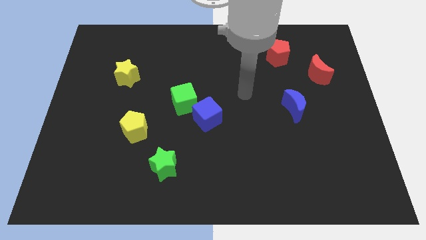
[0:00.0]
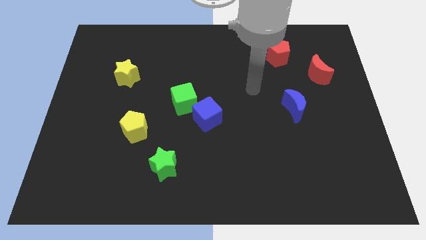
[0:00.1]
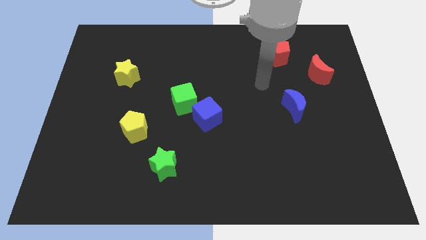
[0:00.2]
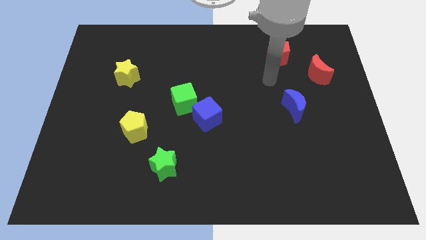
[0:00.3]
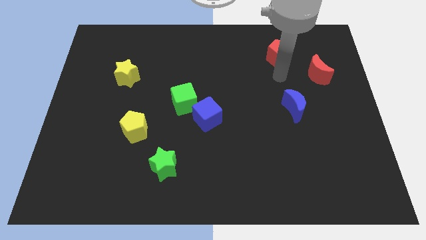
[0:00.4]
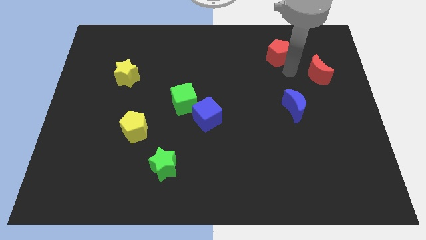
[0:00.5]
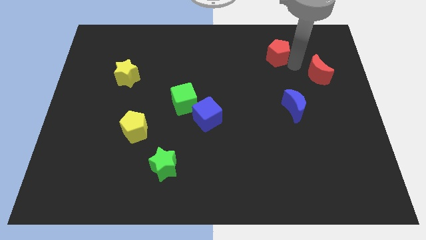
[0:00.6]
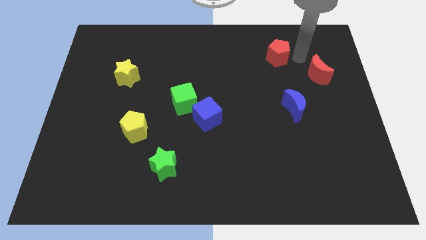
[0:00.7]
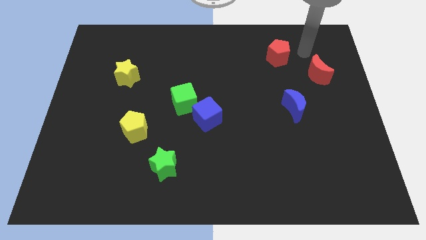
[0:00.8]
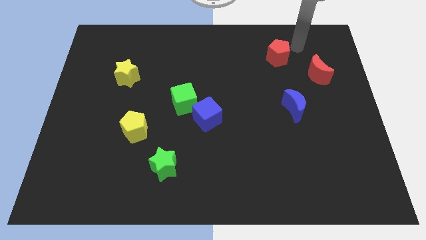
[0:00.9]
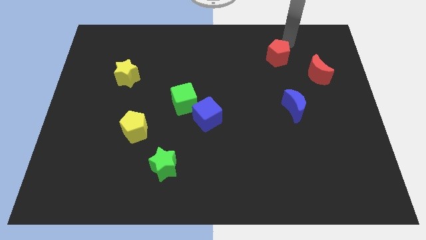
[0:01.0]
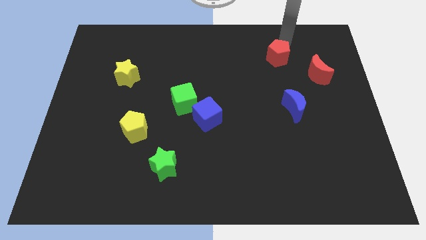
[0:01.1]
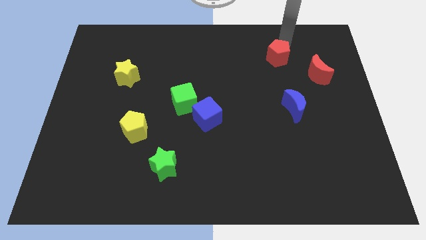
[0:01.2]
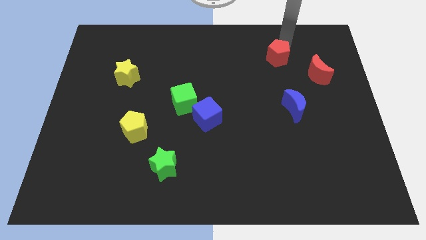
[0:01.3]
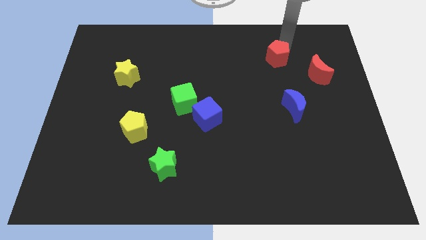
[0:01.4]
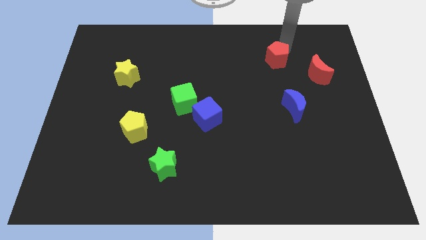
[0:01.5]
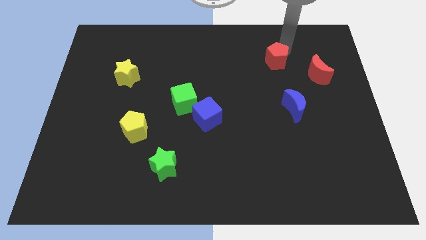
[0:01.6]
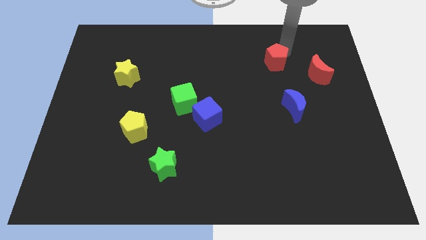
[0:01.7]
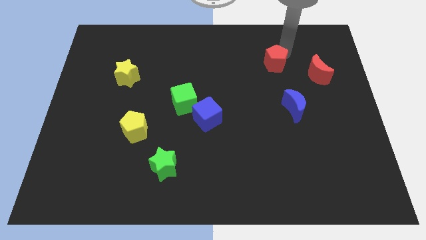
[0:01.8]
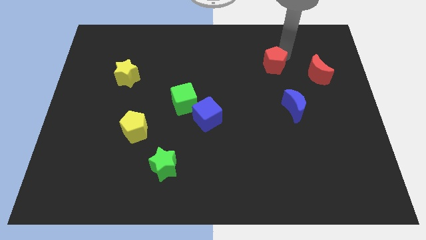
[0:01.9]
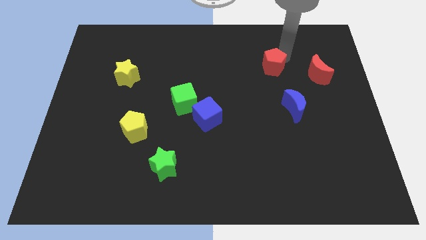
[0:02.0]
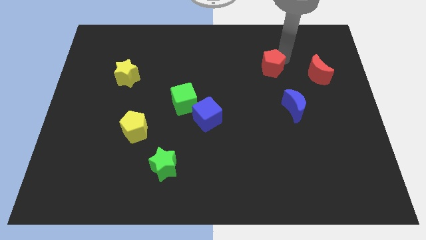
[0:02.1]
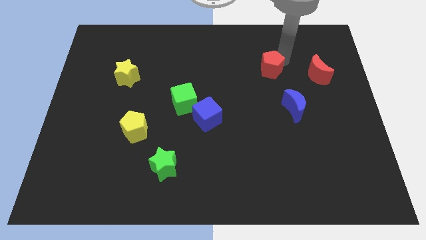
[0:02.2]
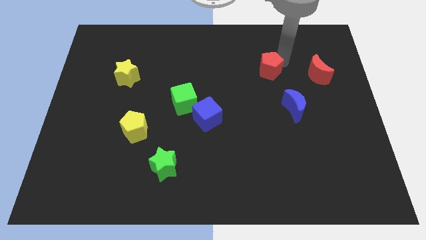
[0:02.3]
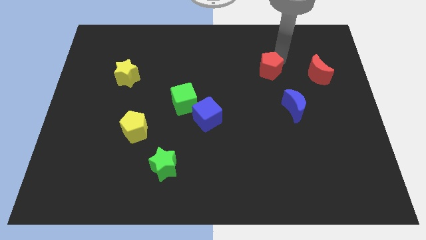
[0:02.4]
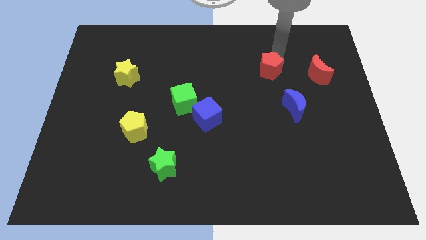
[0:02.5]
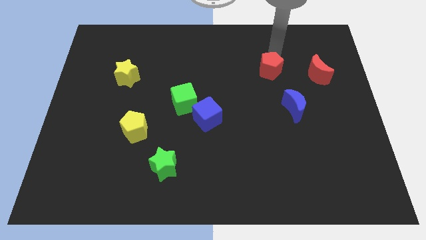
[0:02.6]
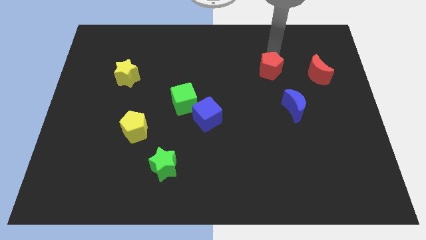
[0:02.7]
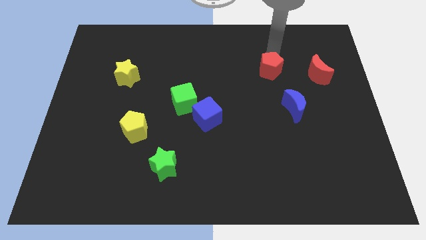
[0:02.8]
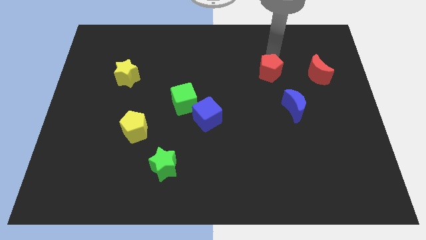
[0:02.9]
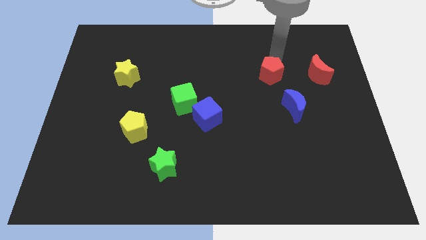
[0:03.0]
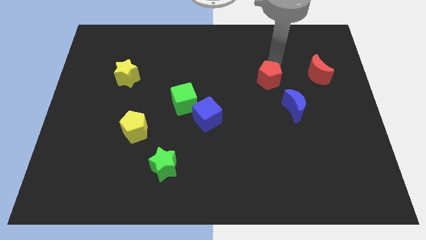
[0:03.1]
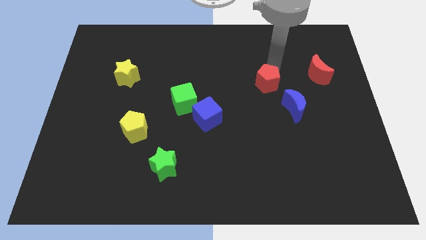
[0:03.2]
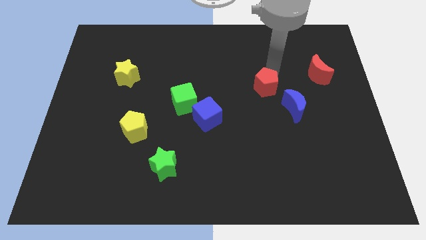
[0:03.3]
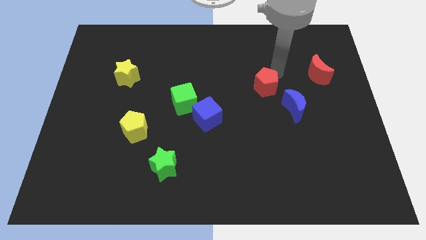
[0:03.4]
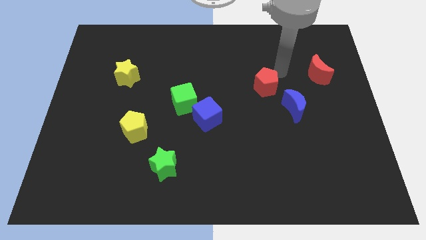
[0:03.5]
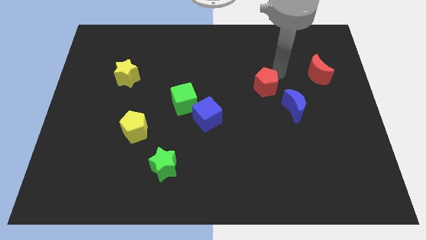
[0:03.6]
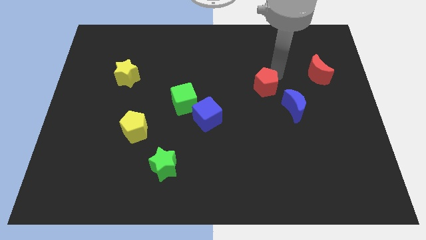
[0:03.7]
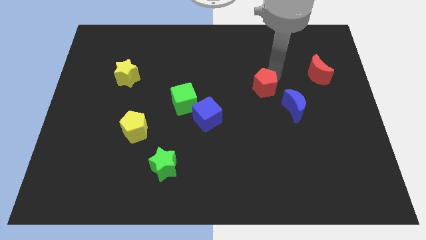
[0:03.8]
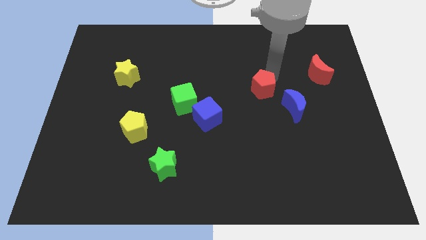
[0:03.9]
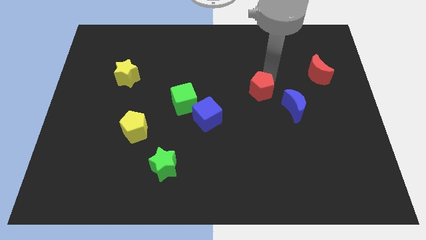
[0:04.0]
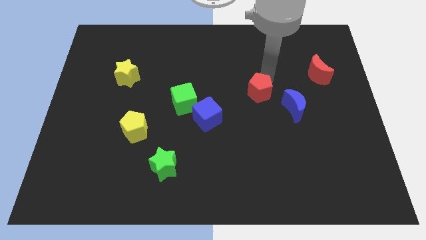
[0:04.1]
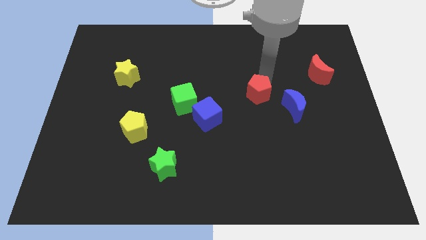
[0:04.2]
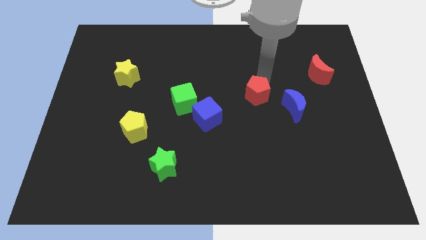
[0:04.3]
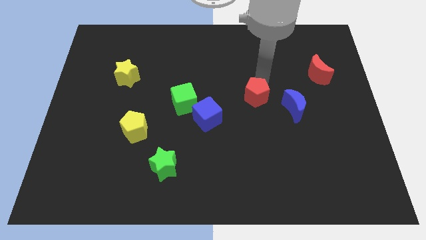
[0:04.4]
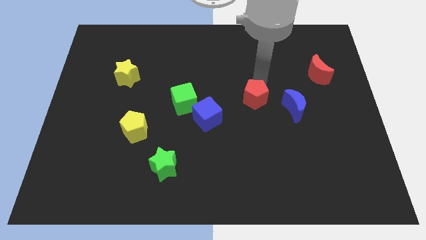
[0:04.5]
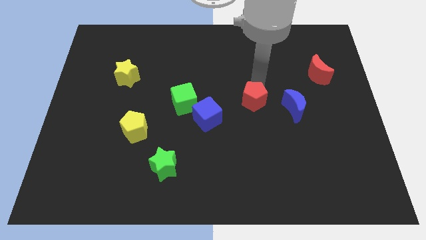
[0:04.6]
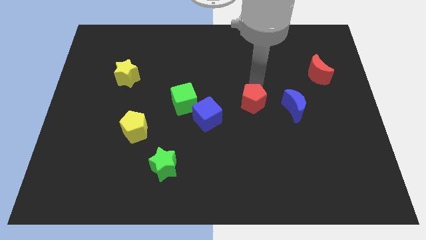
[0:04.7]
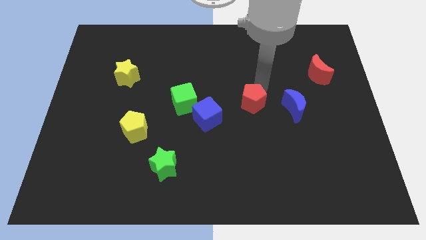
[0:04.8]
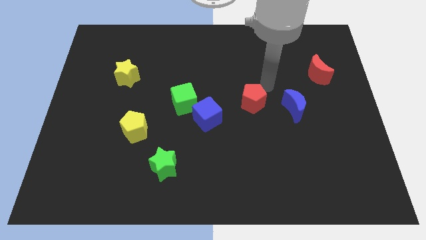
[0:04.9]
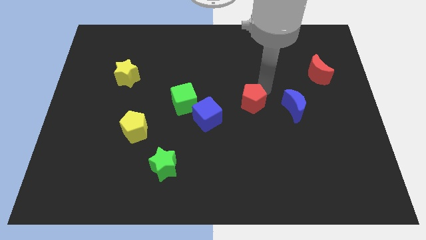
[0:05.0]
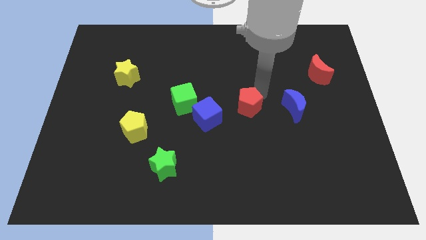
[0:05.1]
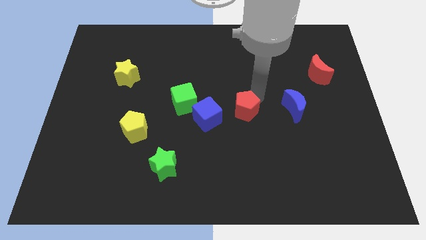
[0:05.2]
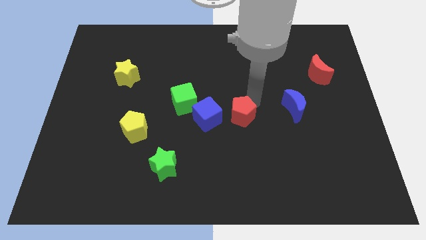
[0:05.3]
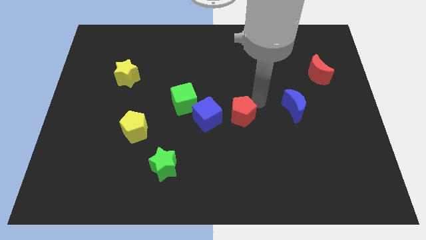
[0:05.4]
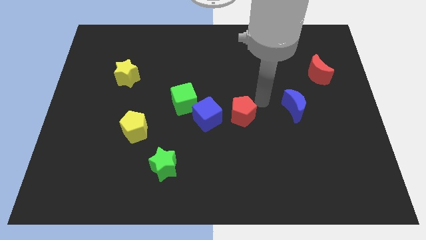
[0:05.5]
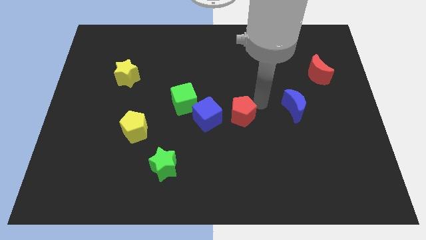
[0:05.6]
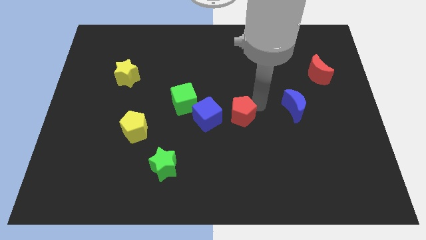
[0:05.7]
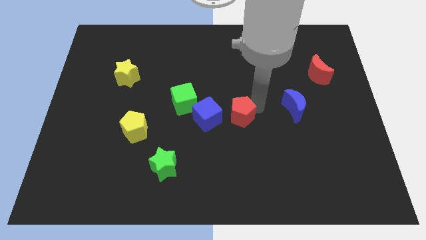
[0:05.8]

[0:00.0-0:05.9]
push the red pentagon diagonally downwards and left

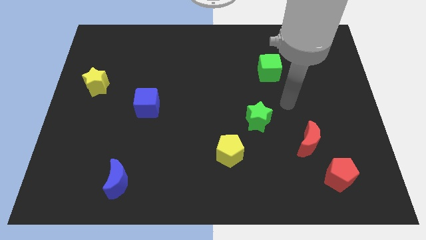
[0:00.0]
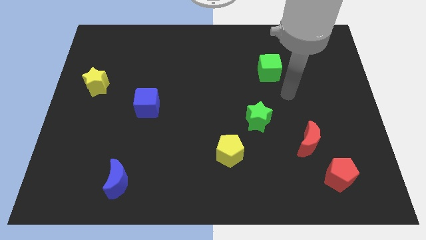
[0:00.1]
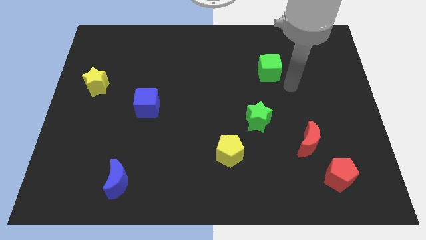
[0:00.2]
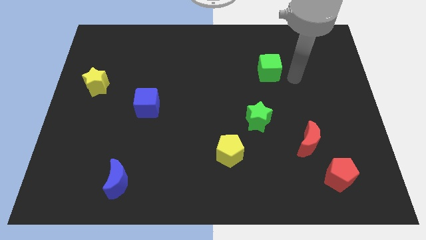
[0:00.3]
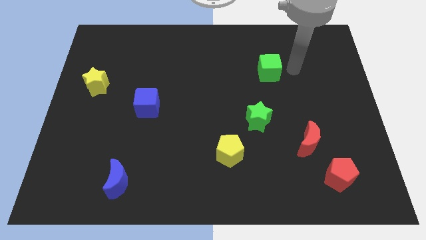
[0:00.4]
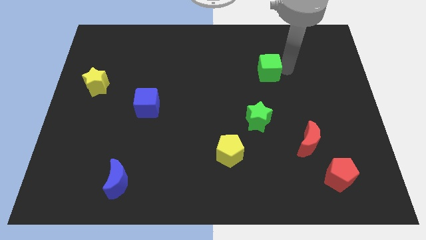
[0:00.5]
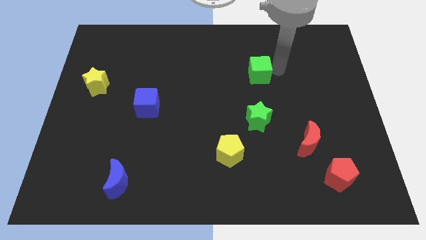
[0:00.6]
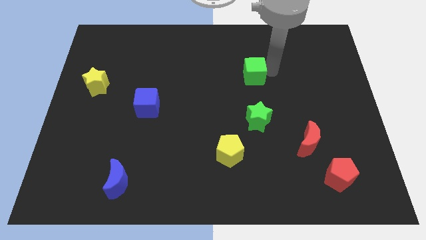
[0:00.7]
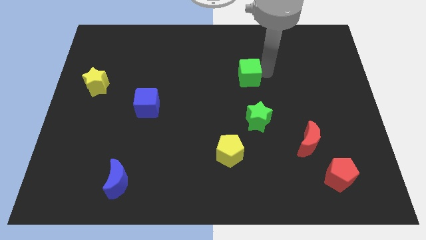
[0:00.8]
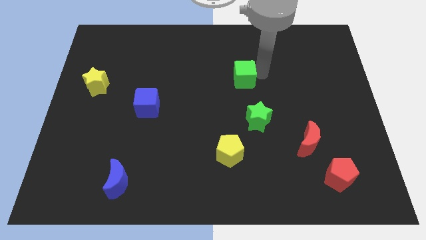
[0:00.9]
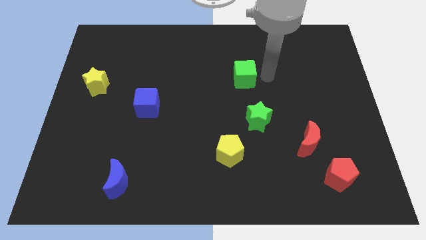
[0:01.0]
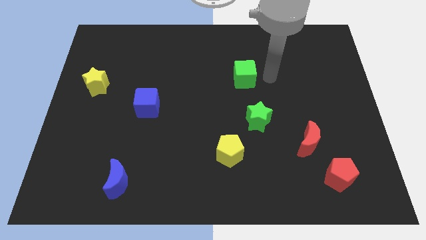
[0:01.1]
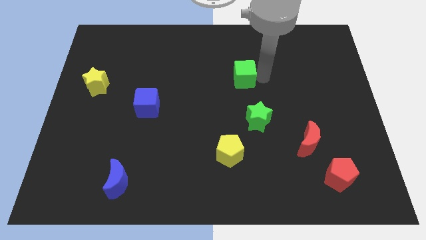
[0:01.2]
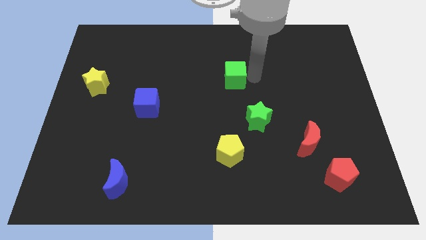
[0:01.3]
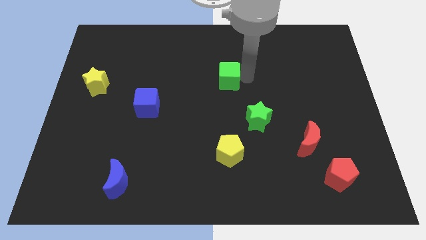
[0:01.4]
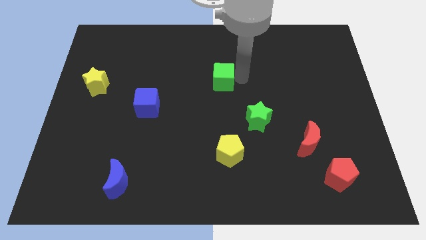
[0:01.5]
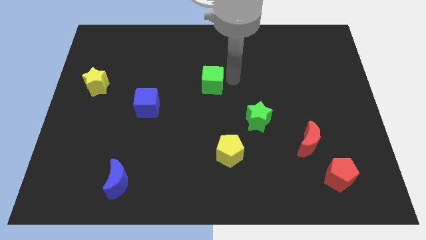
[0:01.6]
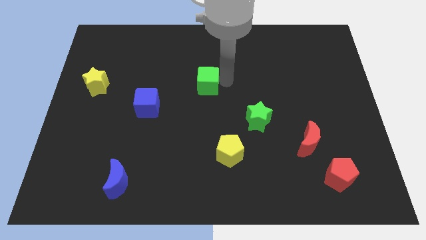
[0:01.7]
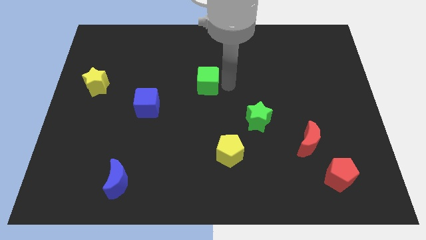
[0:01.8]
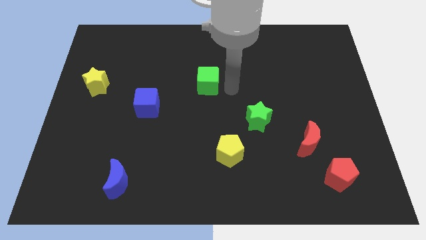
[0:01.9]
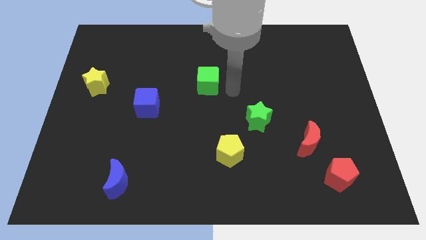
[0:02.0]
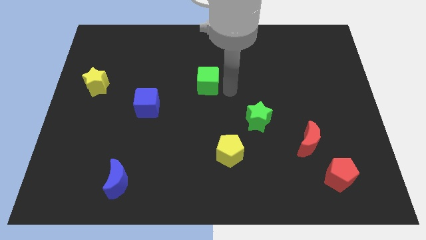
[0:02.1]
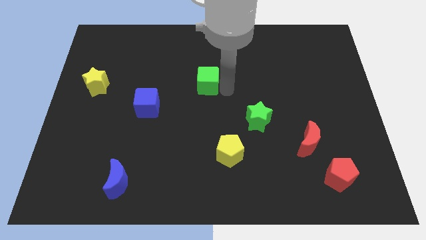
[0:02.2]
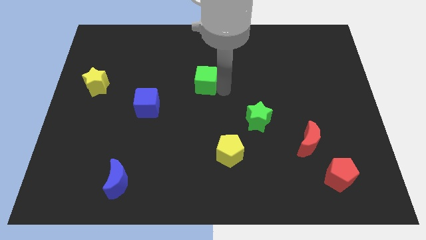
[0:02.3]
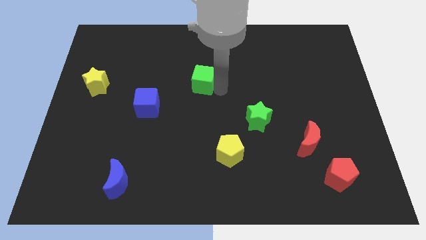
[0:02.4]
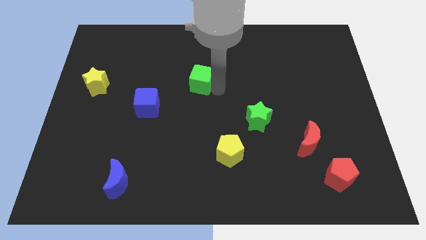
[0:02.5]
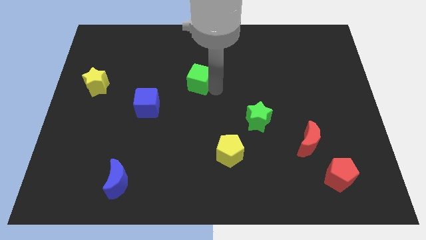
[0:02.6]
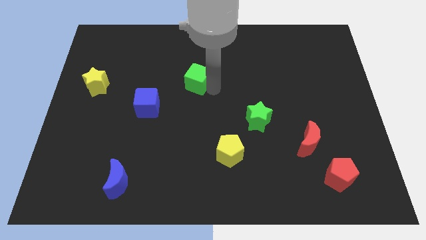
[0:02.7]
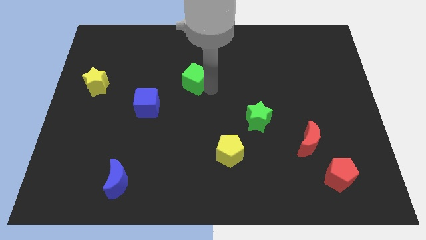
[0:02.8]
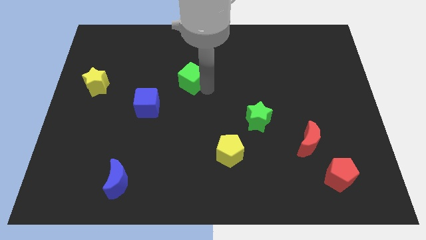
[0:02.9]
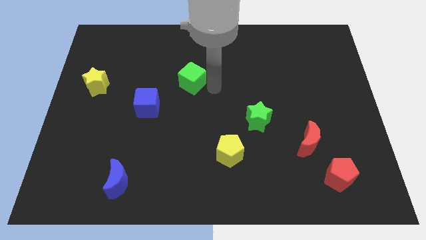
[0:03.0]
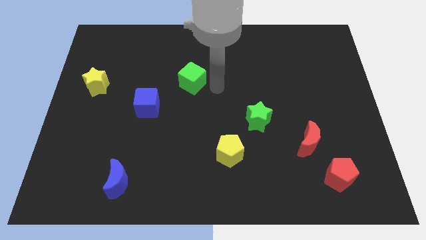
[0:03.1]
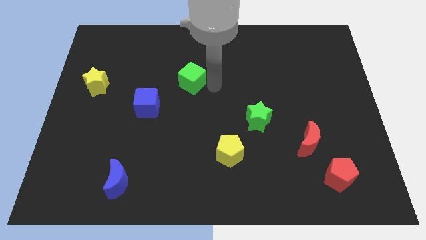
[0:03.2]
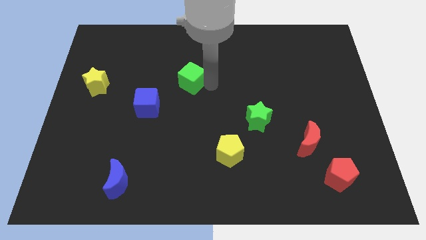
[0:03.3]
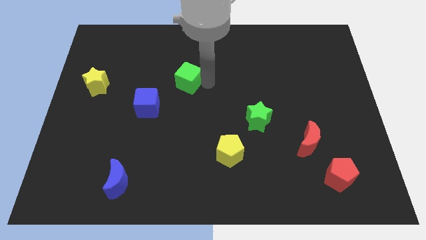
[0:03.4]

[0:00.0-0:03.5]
push the green cube to the left
